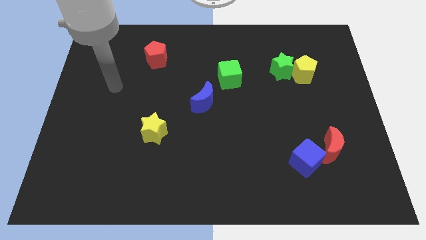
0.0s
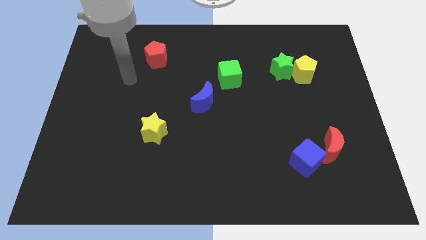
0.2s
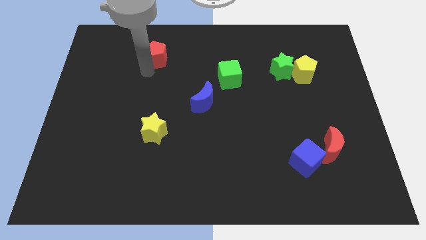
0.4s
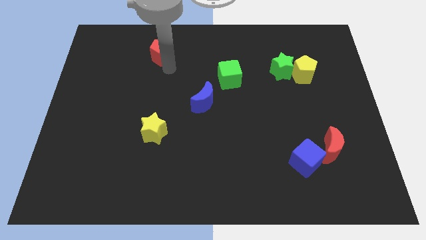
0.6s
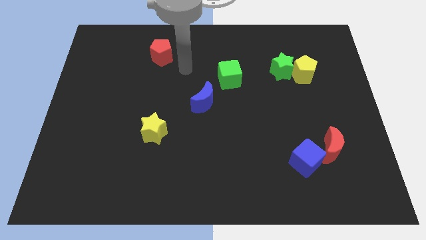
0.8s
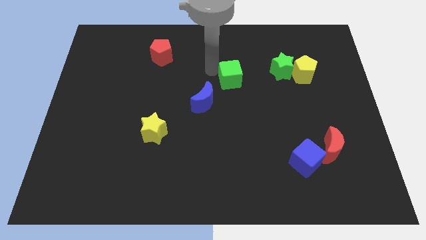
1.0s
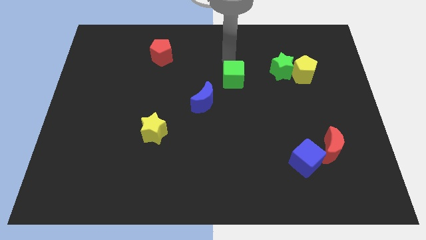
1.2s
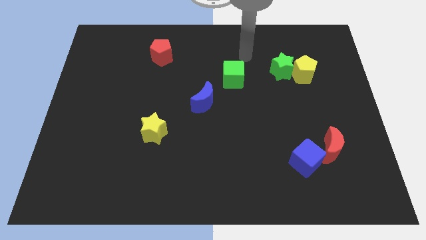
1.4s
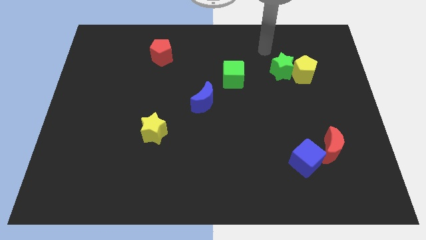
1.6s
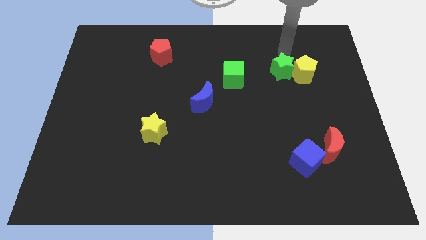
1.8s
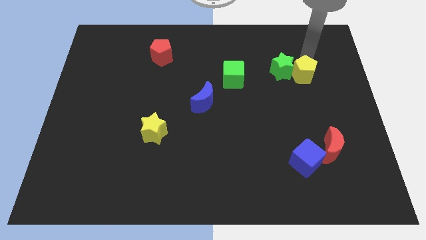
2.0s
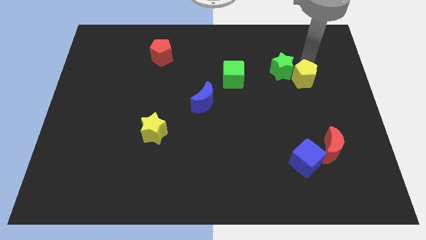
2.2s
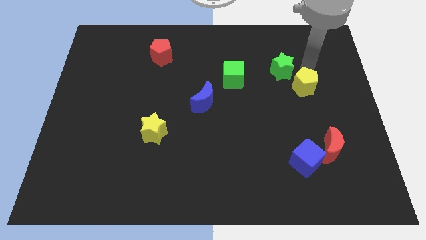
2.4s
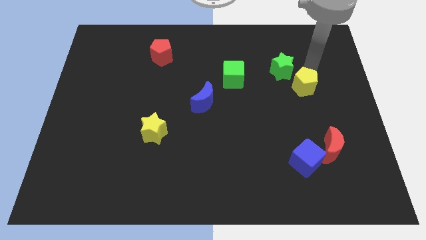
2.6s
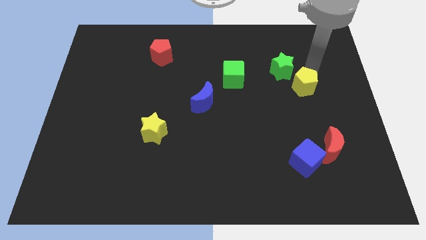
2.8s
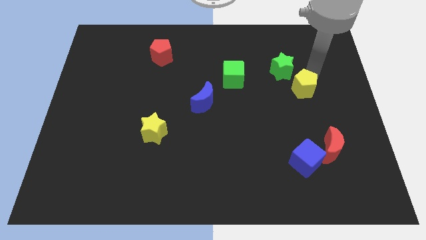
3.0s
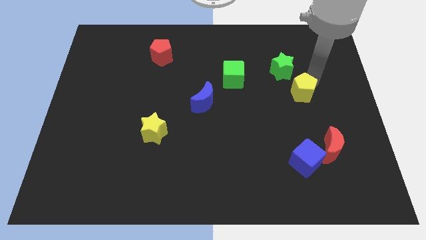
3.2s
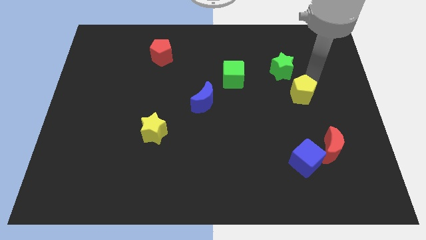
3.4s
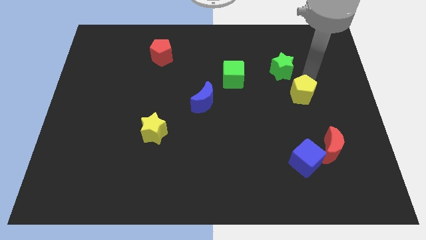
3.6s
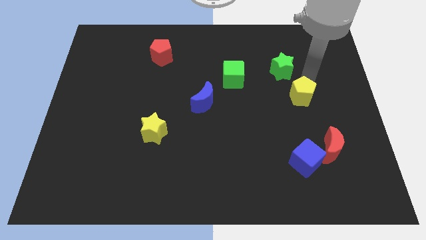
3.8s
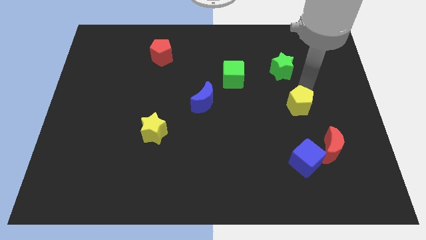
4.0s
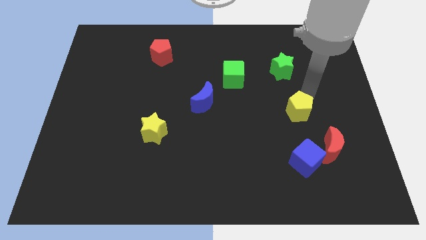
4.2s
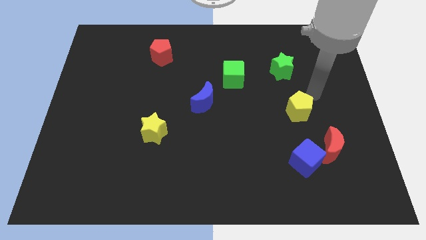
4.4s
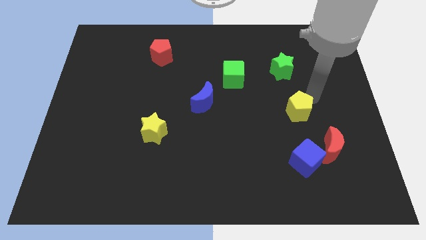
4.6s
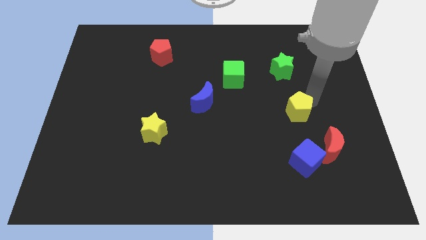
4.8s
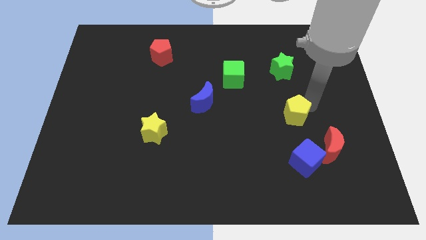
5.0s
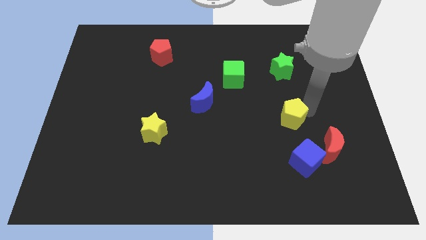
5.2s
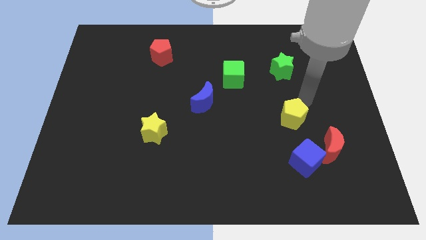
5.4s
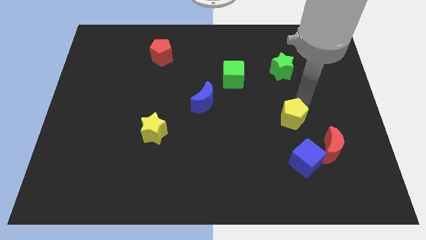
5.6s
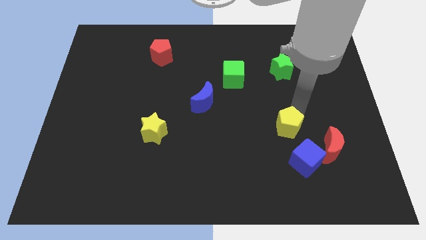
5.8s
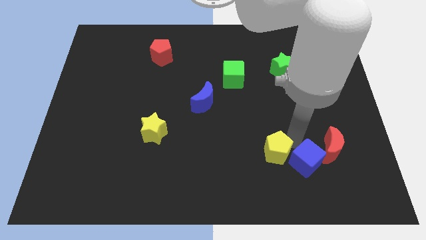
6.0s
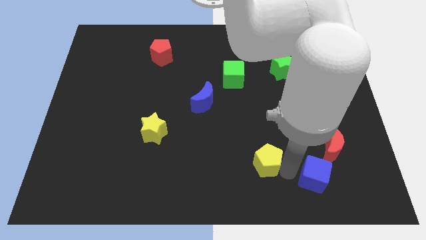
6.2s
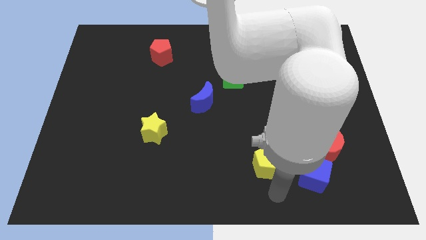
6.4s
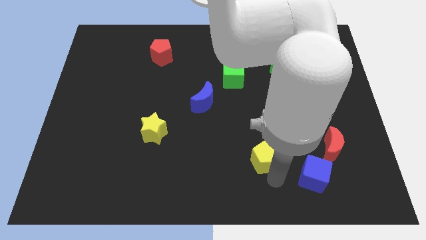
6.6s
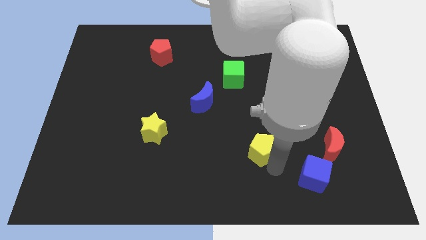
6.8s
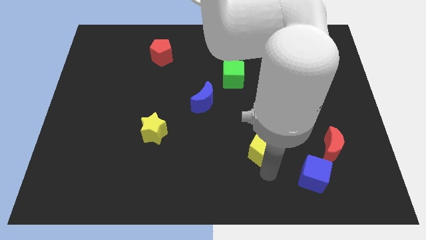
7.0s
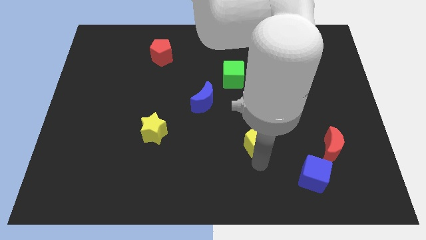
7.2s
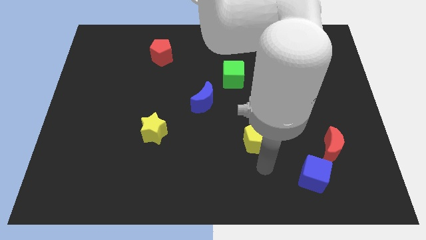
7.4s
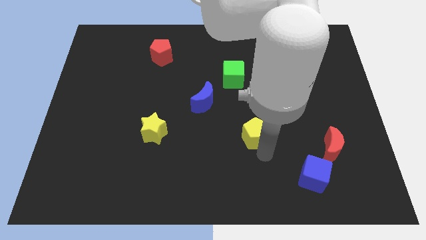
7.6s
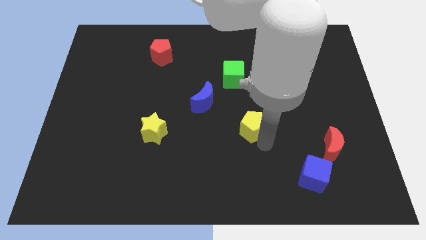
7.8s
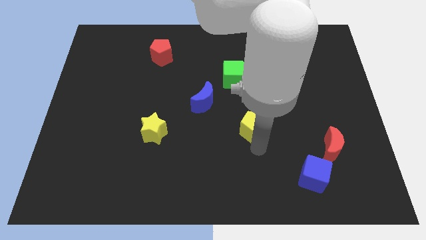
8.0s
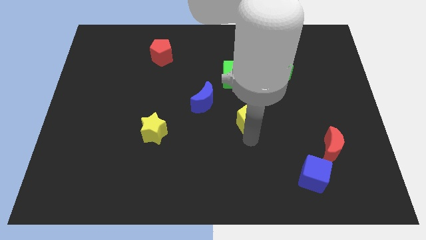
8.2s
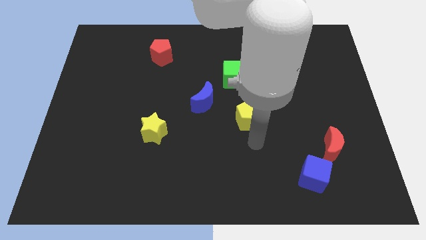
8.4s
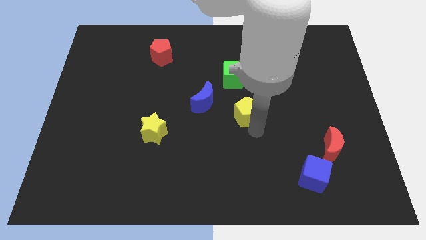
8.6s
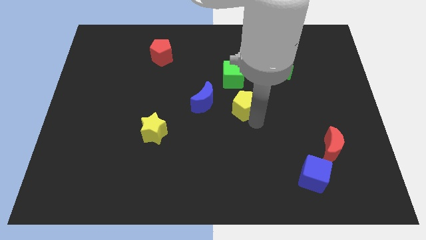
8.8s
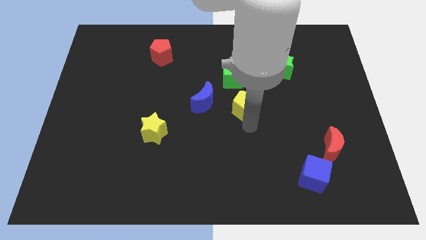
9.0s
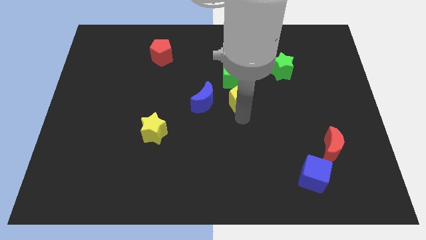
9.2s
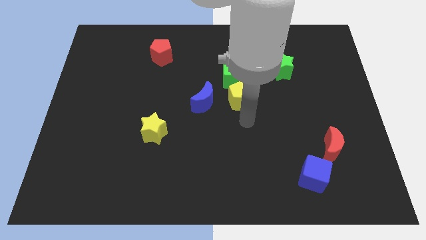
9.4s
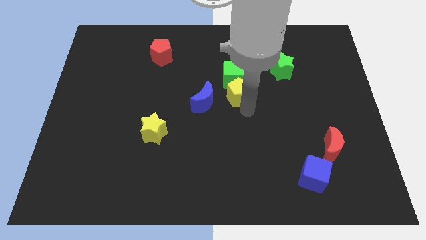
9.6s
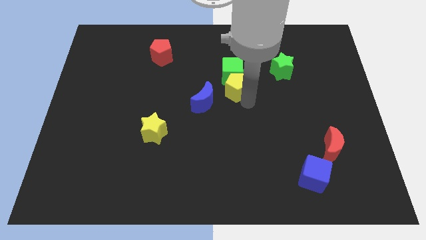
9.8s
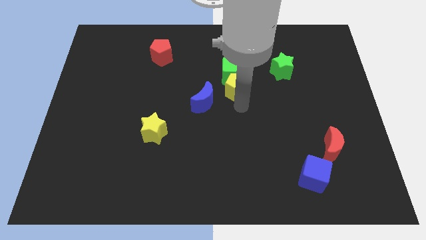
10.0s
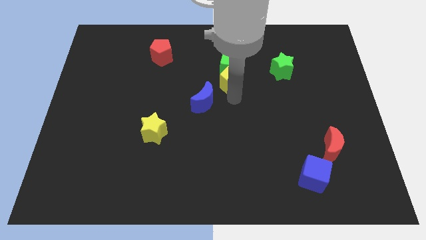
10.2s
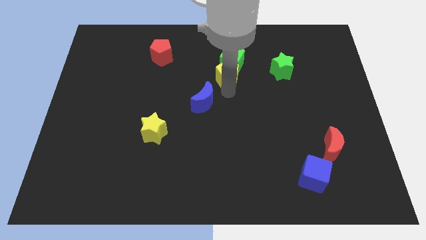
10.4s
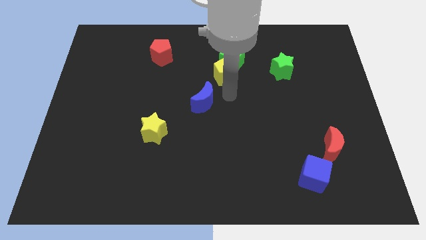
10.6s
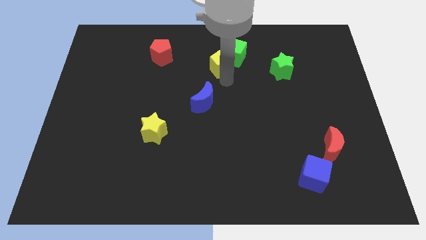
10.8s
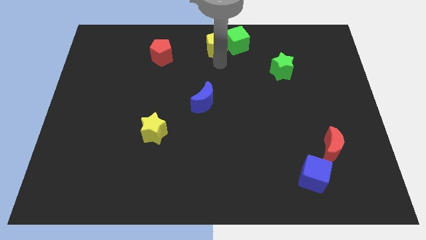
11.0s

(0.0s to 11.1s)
move the yellow pentagon to the top

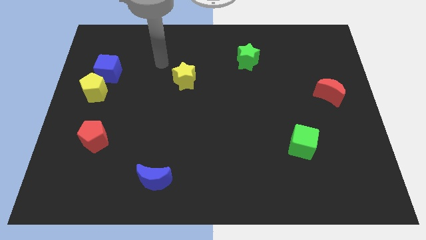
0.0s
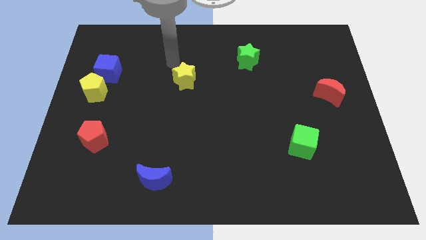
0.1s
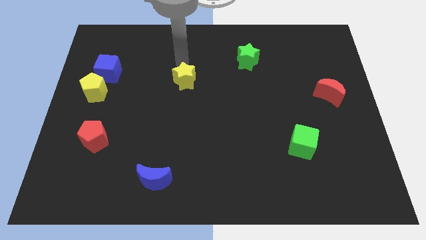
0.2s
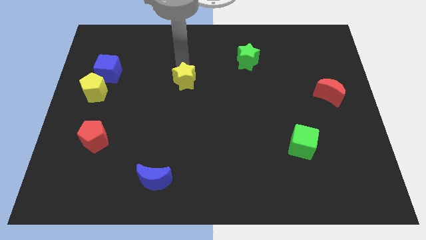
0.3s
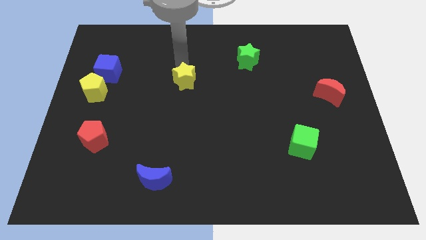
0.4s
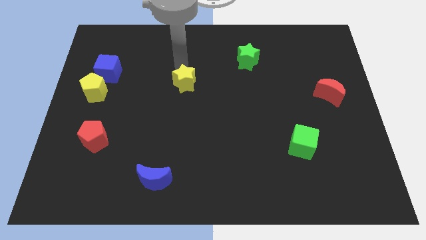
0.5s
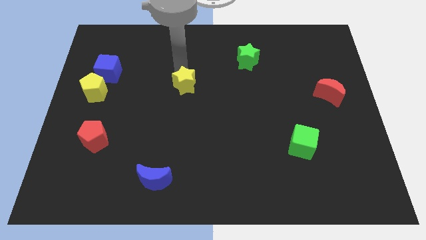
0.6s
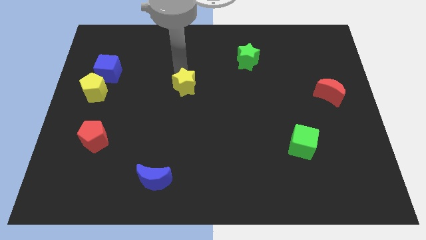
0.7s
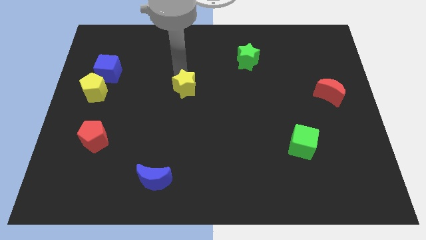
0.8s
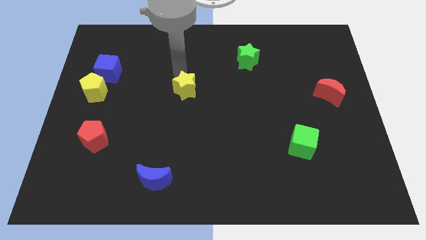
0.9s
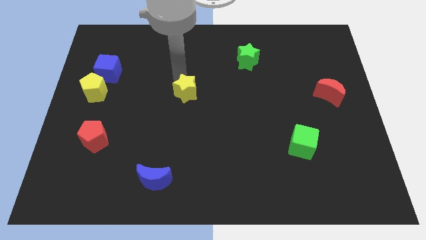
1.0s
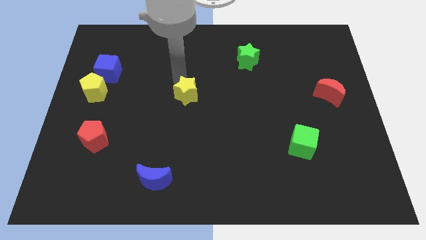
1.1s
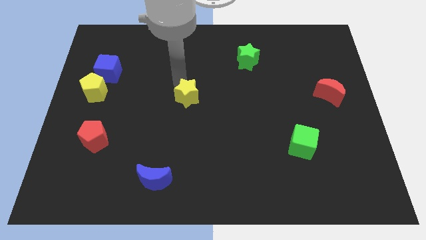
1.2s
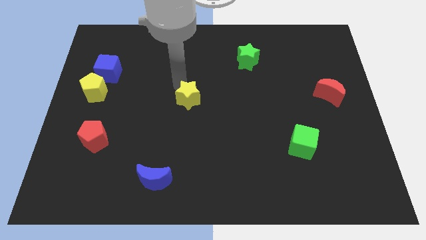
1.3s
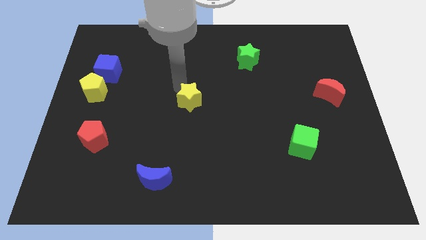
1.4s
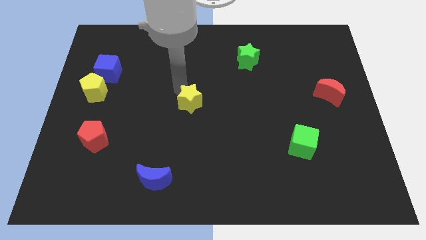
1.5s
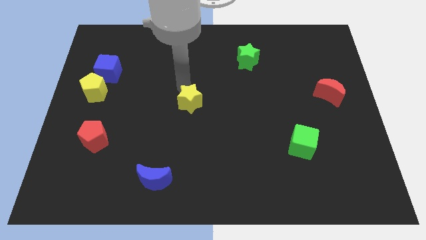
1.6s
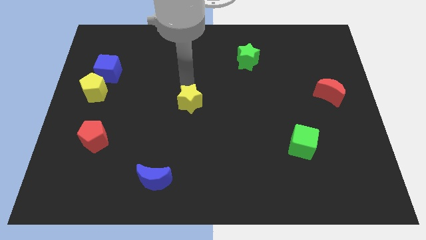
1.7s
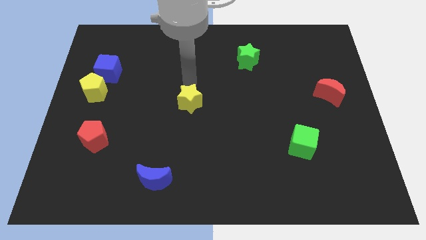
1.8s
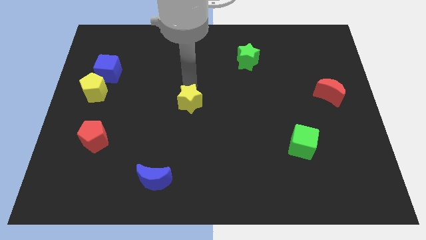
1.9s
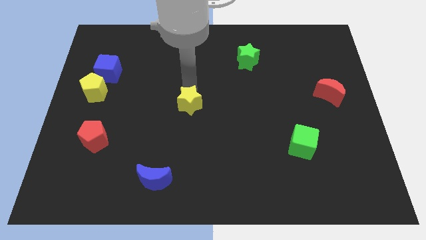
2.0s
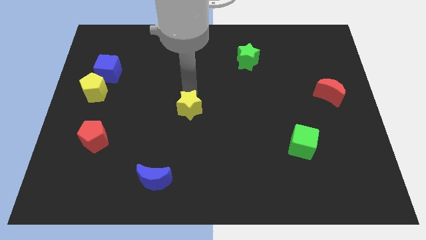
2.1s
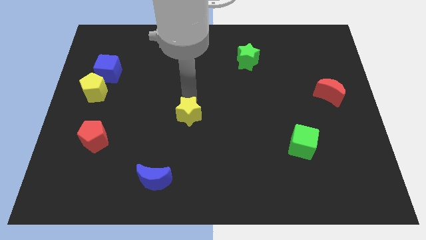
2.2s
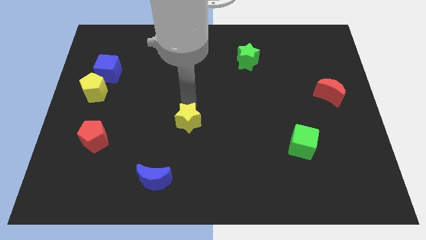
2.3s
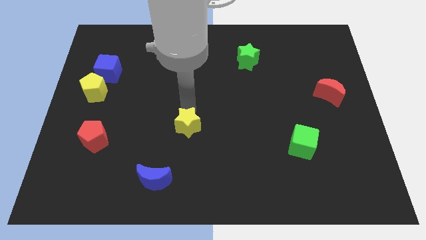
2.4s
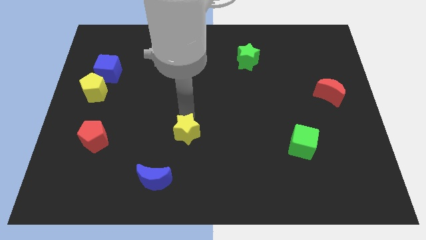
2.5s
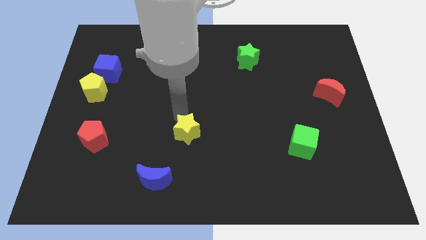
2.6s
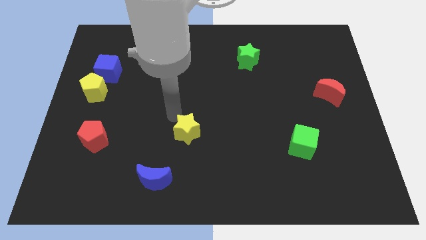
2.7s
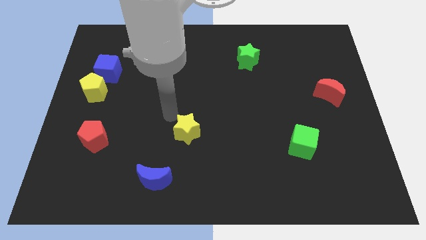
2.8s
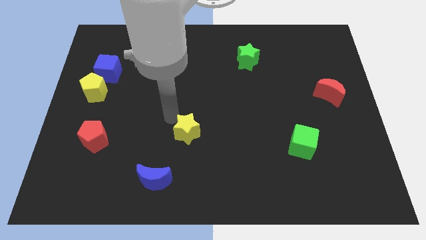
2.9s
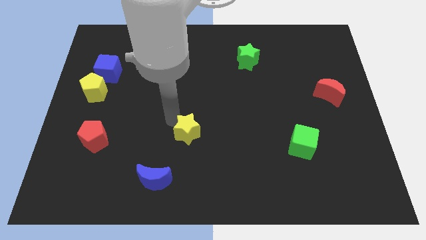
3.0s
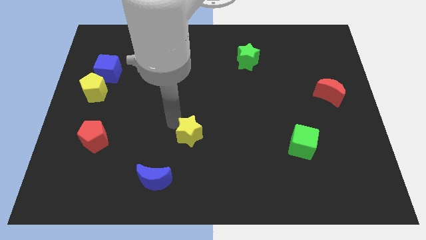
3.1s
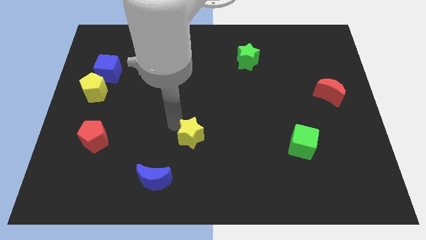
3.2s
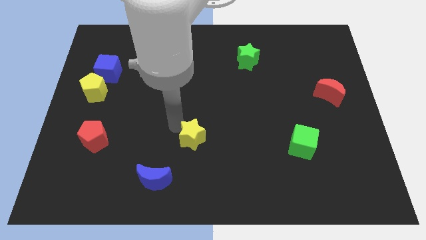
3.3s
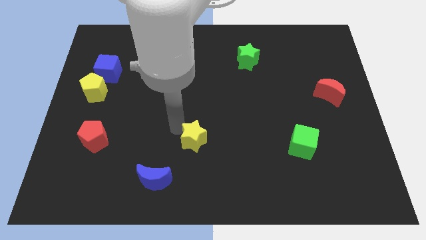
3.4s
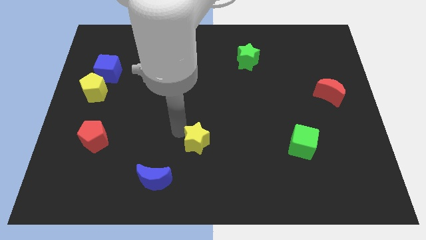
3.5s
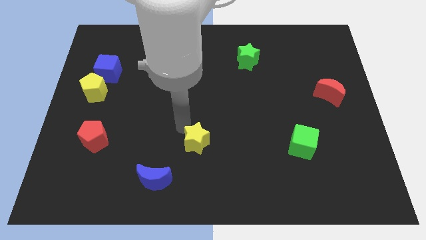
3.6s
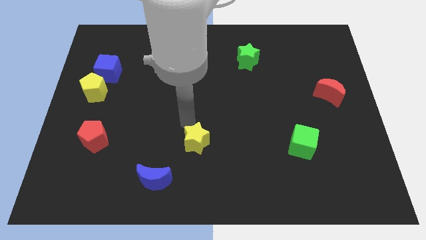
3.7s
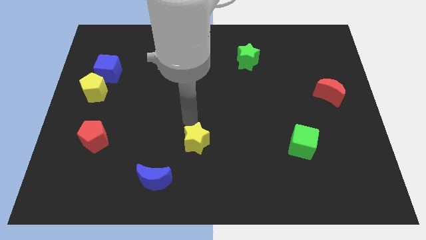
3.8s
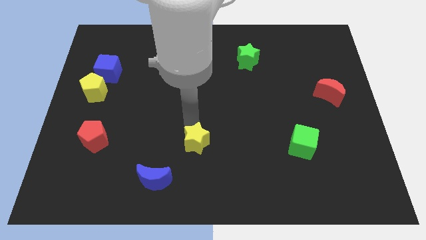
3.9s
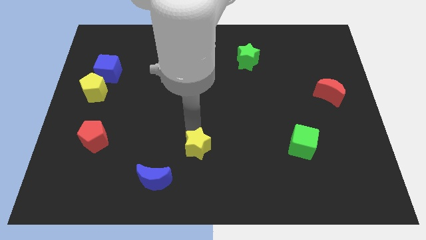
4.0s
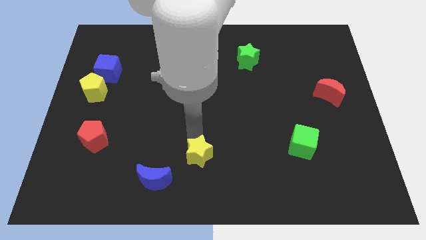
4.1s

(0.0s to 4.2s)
push the yellow star to the bottom
